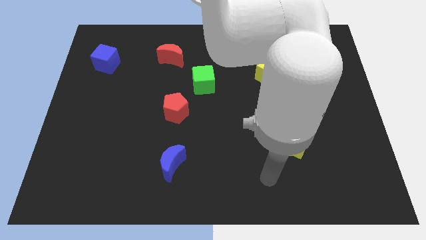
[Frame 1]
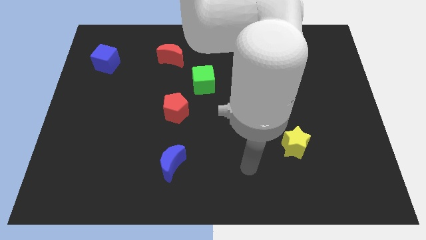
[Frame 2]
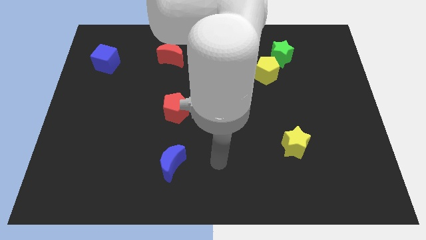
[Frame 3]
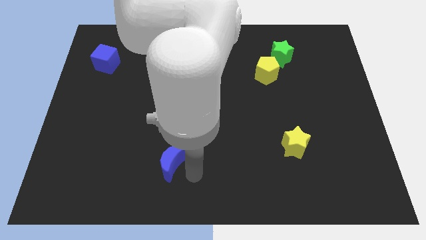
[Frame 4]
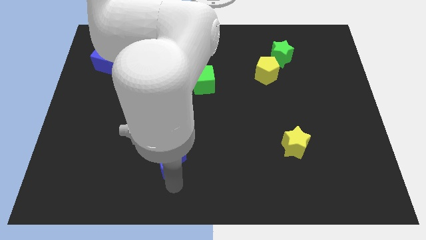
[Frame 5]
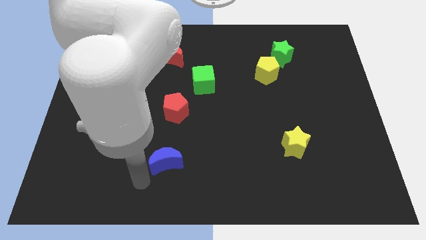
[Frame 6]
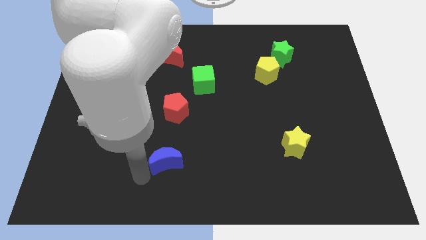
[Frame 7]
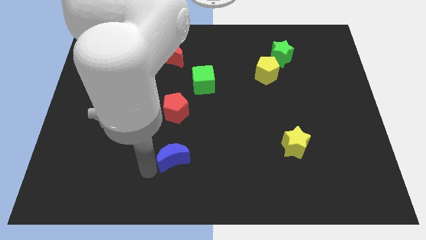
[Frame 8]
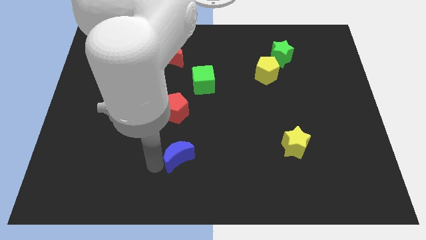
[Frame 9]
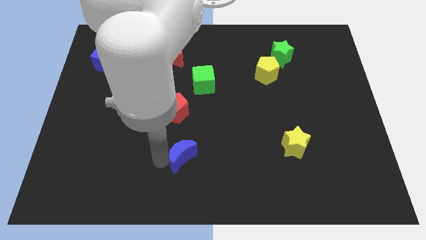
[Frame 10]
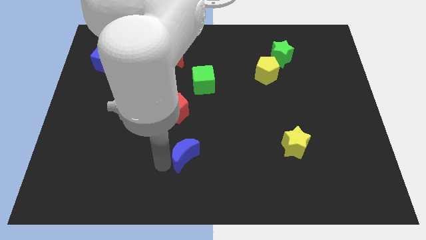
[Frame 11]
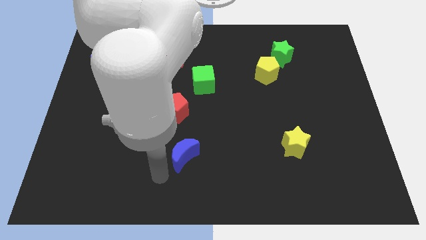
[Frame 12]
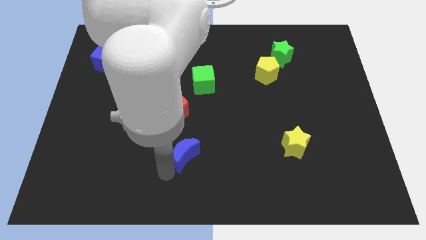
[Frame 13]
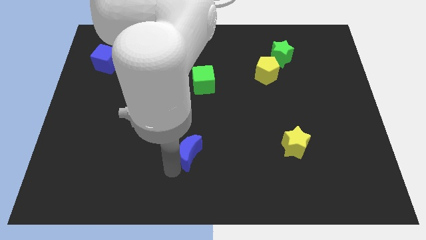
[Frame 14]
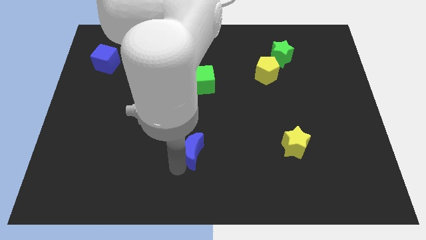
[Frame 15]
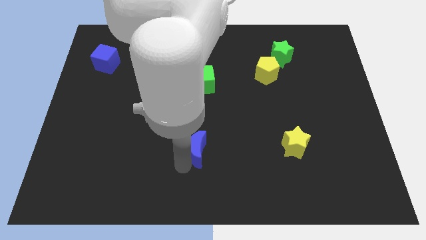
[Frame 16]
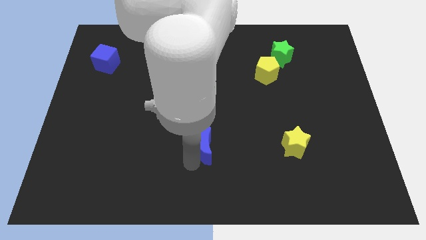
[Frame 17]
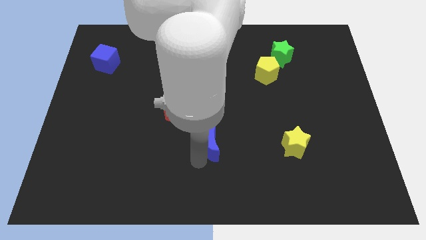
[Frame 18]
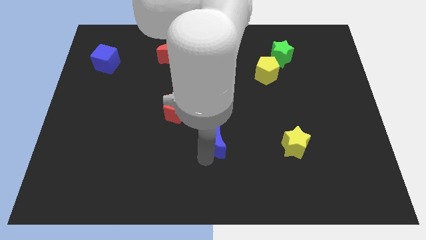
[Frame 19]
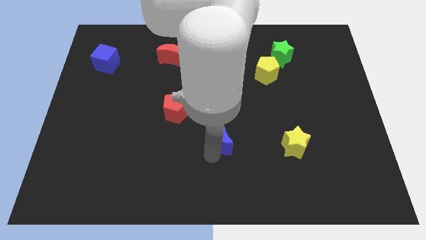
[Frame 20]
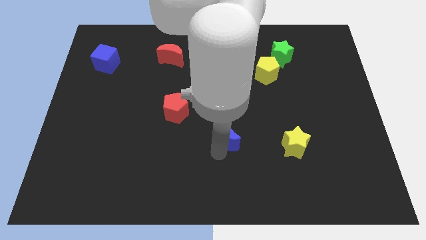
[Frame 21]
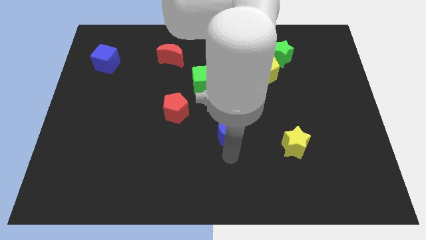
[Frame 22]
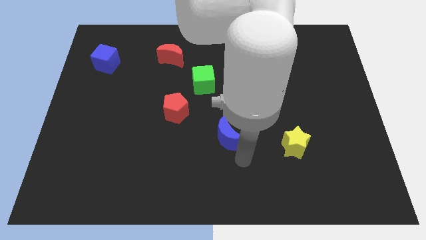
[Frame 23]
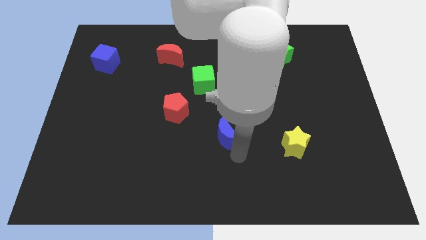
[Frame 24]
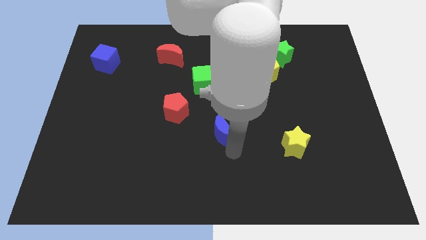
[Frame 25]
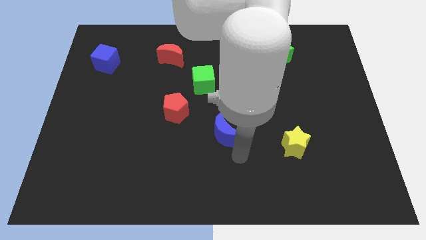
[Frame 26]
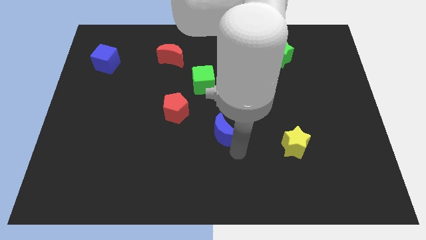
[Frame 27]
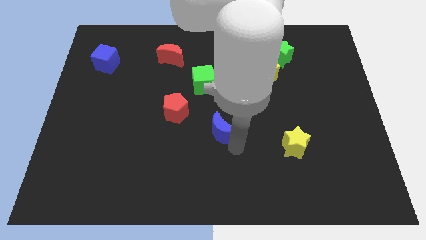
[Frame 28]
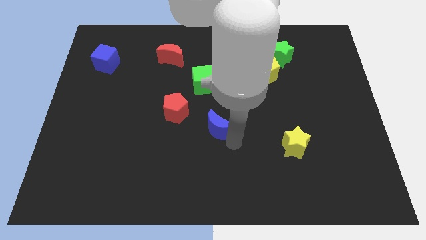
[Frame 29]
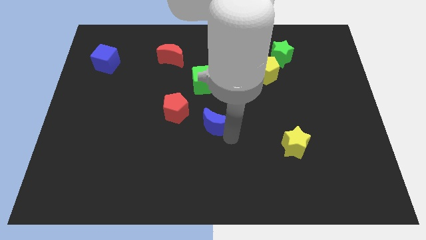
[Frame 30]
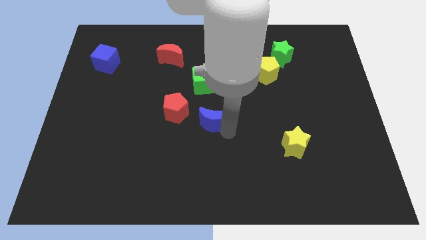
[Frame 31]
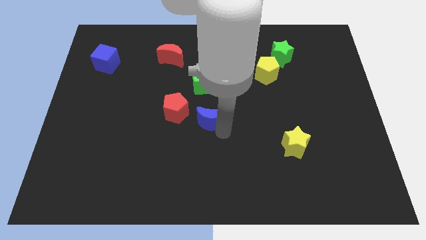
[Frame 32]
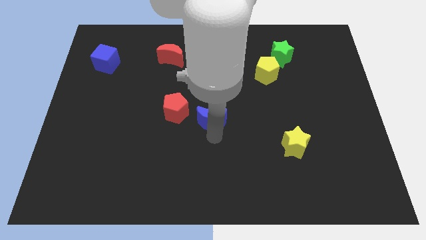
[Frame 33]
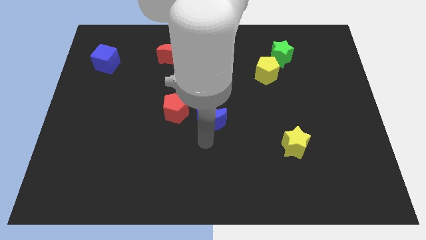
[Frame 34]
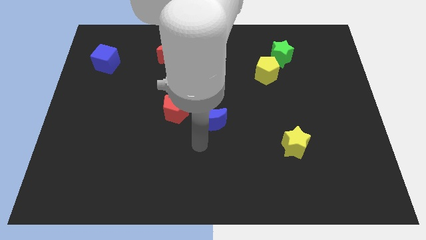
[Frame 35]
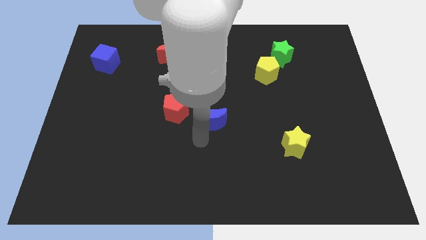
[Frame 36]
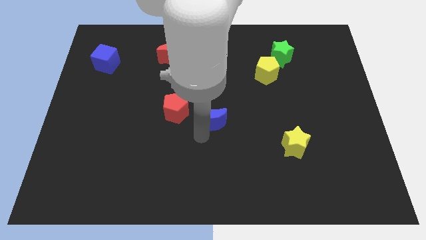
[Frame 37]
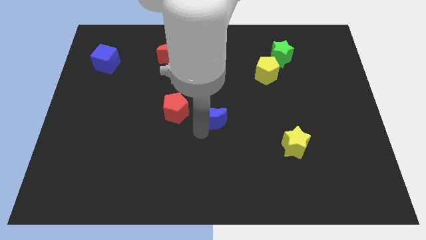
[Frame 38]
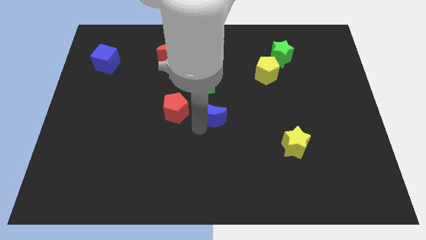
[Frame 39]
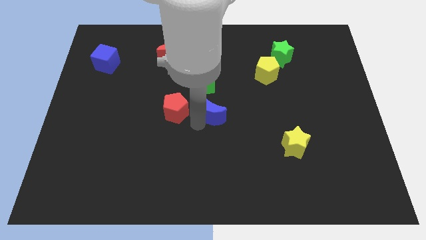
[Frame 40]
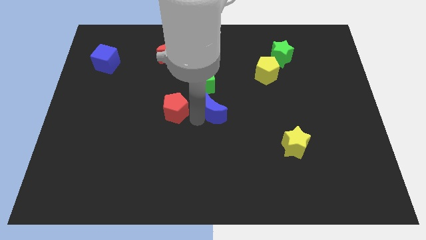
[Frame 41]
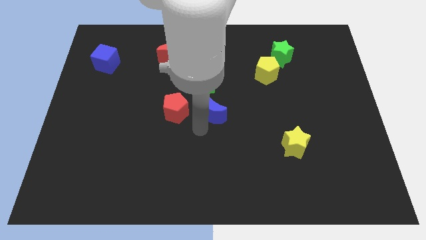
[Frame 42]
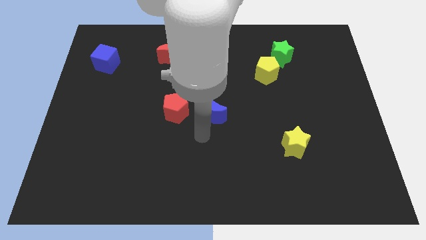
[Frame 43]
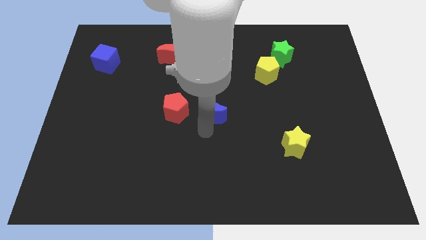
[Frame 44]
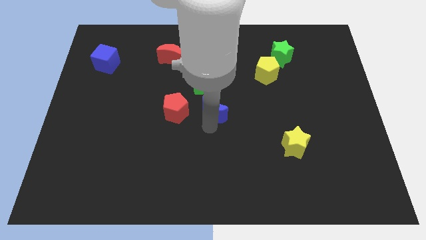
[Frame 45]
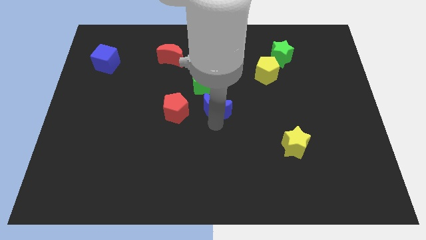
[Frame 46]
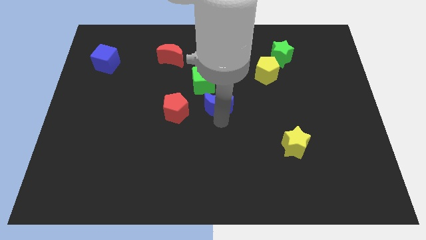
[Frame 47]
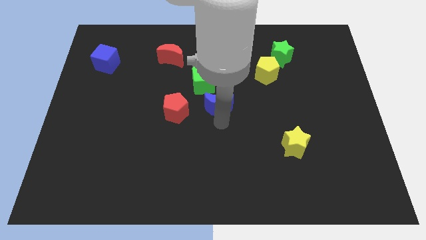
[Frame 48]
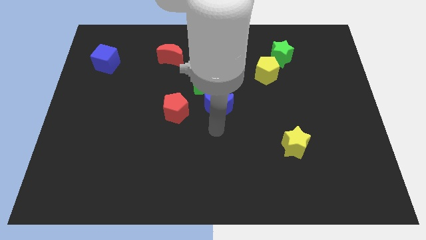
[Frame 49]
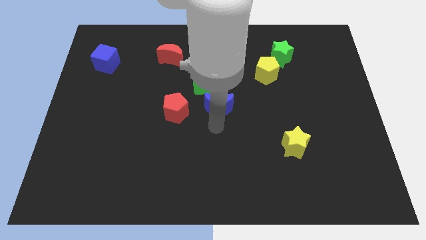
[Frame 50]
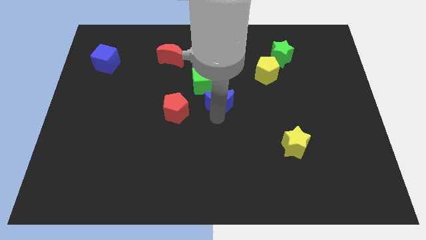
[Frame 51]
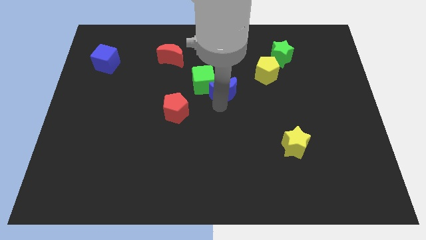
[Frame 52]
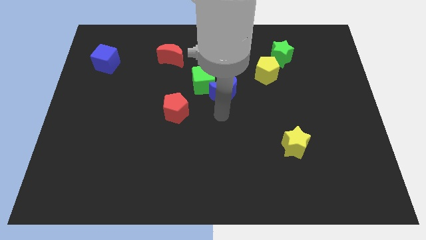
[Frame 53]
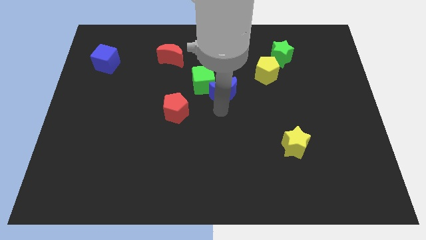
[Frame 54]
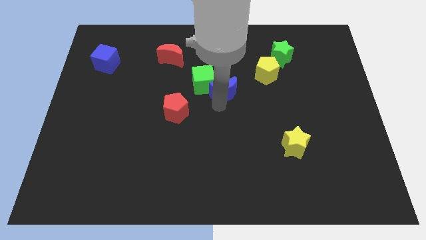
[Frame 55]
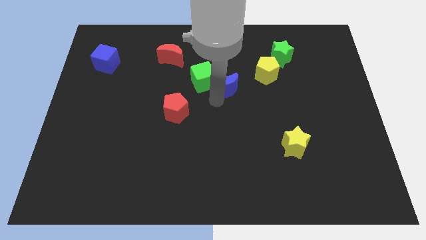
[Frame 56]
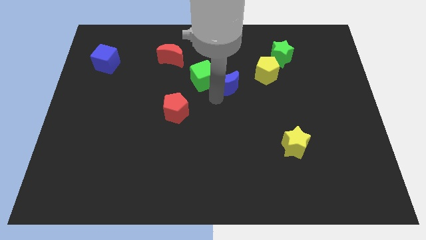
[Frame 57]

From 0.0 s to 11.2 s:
move the blue moon to the left of the yellow pentagon

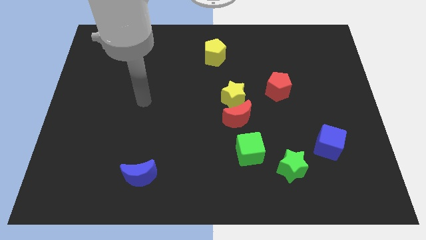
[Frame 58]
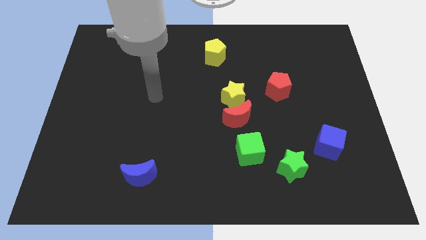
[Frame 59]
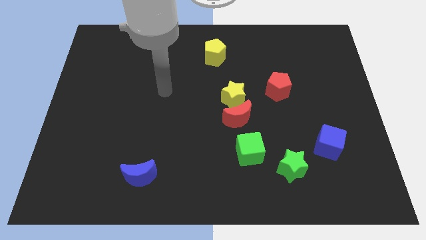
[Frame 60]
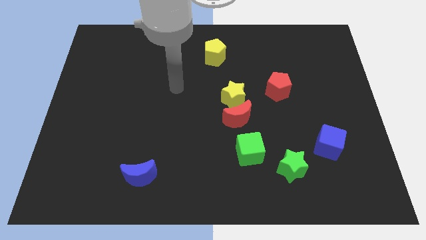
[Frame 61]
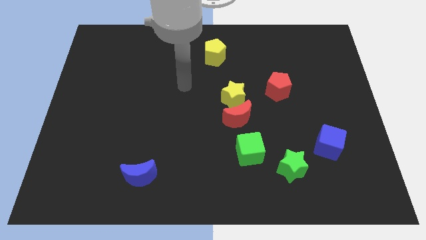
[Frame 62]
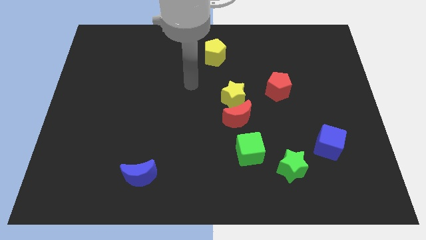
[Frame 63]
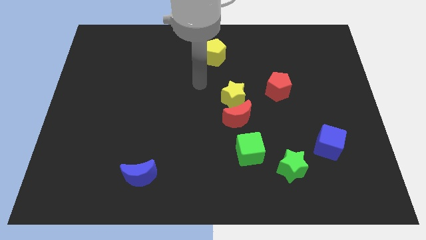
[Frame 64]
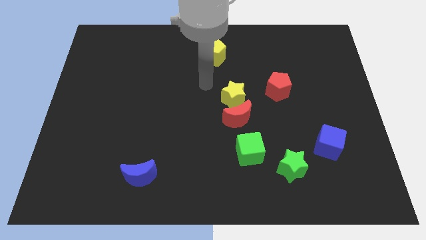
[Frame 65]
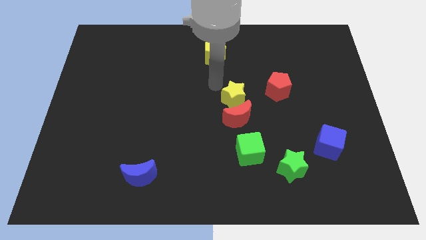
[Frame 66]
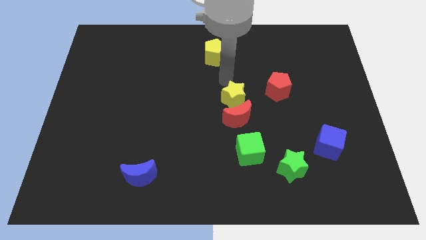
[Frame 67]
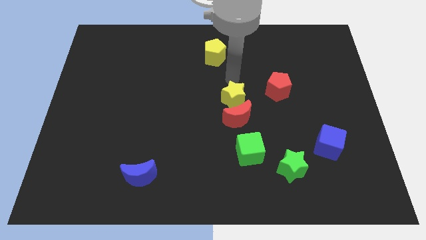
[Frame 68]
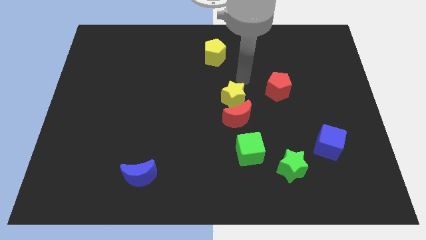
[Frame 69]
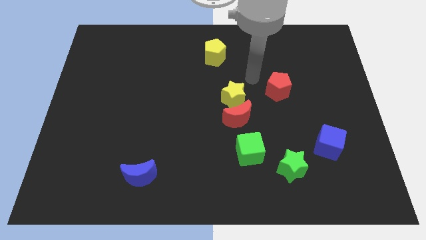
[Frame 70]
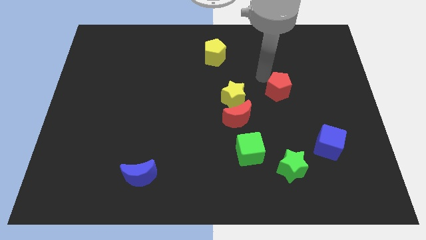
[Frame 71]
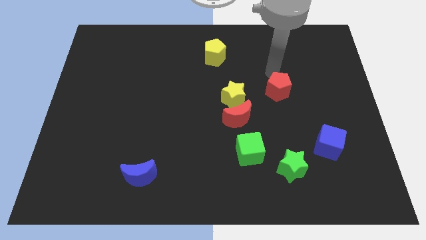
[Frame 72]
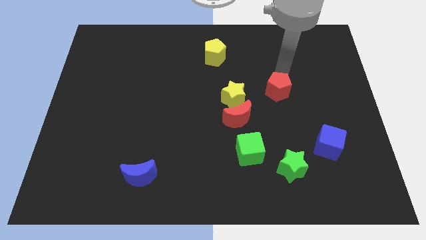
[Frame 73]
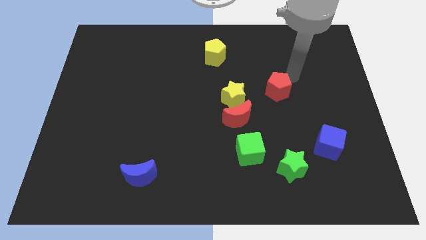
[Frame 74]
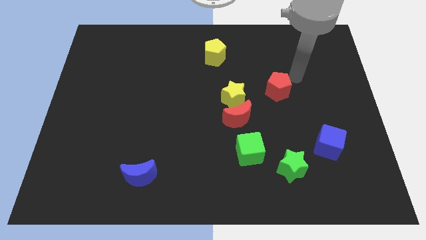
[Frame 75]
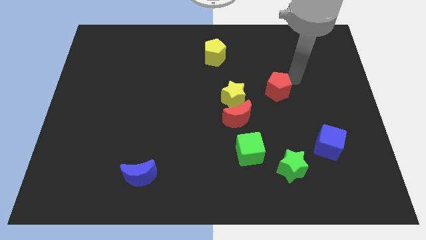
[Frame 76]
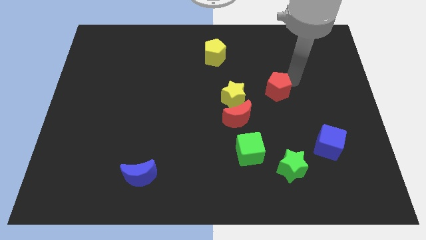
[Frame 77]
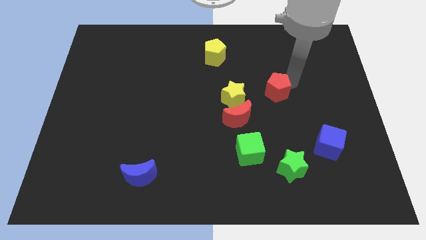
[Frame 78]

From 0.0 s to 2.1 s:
push the red pentagon to the top right side of the red moon
